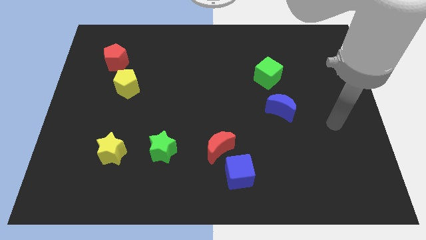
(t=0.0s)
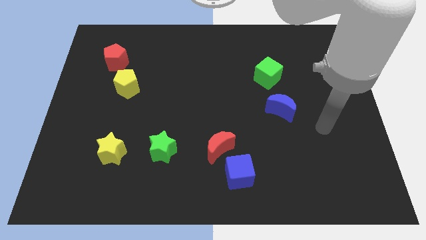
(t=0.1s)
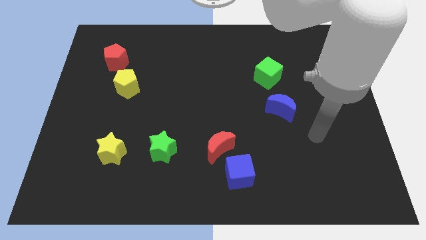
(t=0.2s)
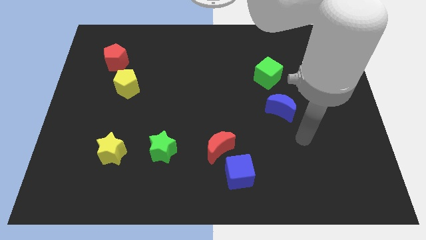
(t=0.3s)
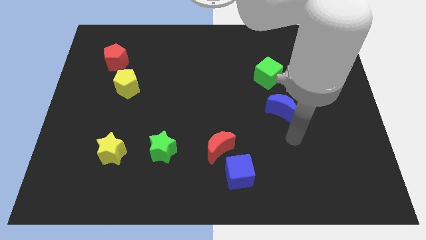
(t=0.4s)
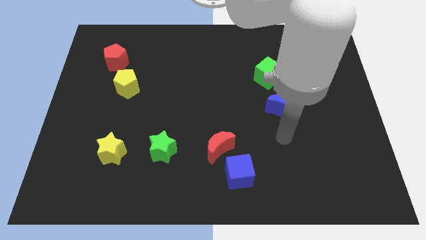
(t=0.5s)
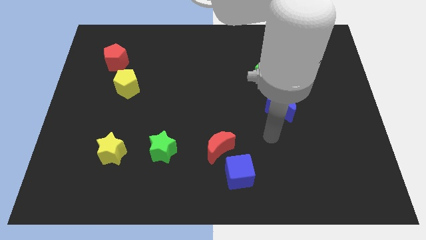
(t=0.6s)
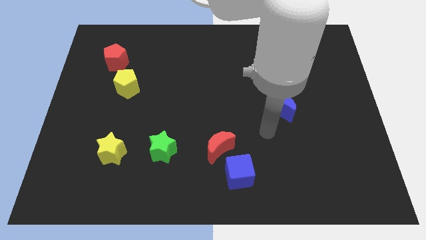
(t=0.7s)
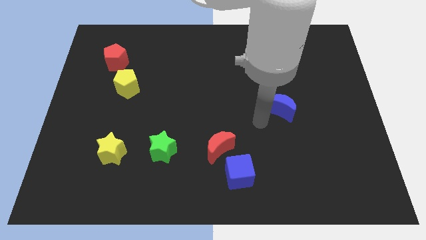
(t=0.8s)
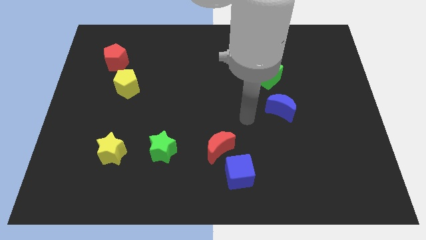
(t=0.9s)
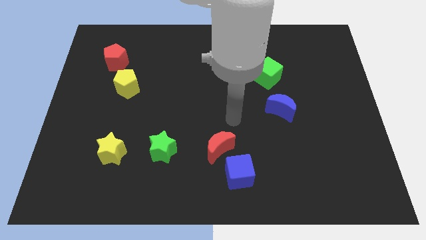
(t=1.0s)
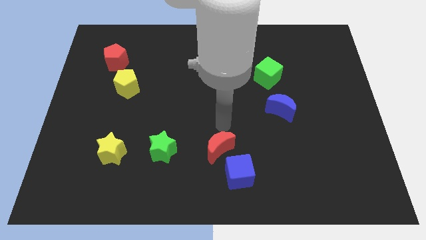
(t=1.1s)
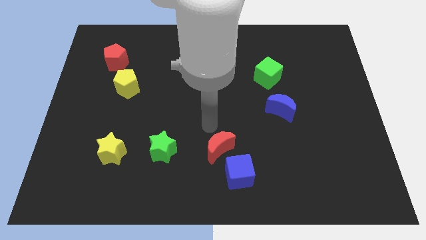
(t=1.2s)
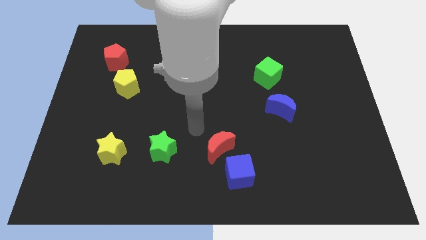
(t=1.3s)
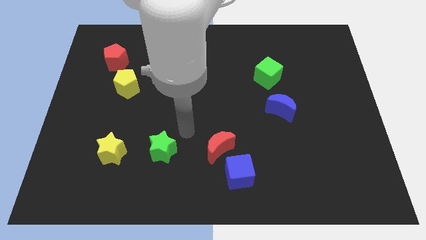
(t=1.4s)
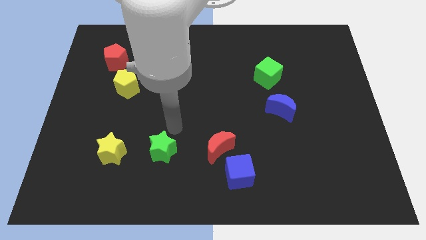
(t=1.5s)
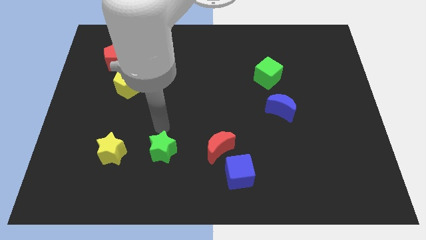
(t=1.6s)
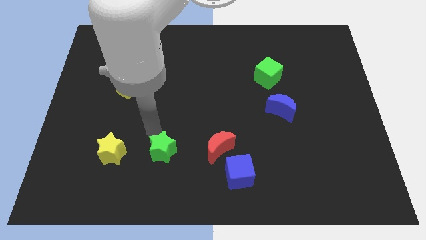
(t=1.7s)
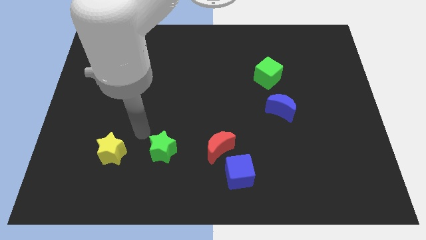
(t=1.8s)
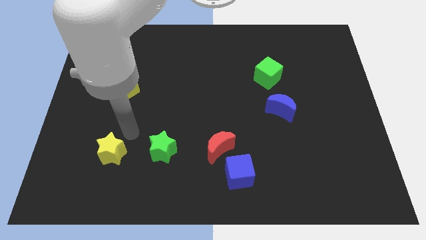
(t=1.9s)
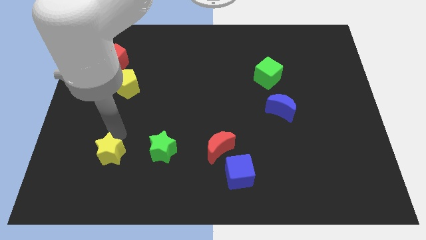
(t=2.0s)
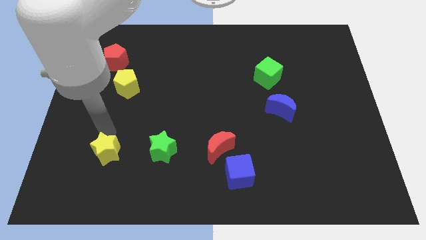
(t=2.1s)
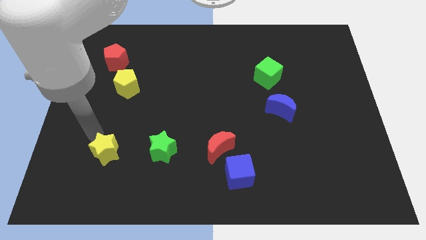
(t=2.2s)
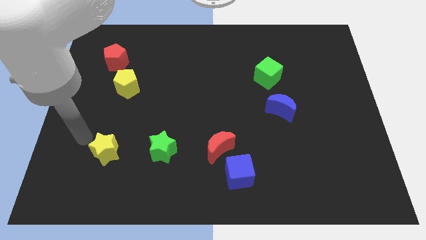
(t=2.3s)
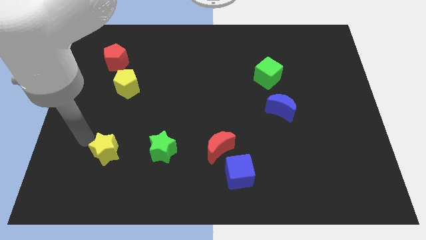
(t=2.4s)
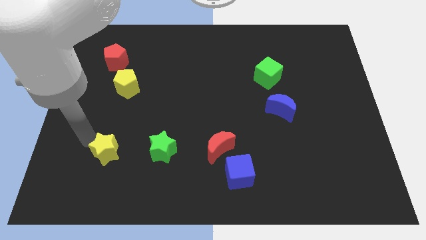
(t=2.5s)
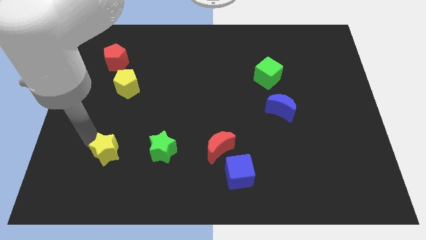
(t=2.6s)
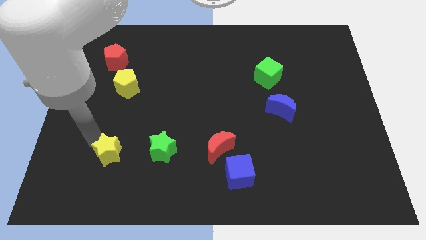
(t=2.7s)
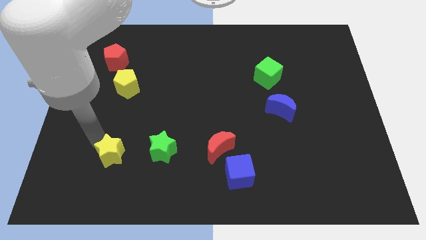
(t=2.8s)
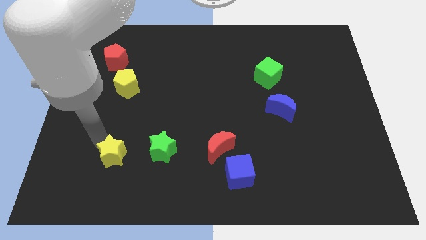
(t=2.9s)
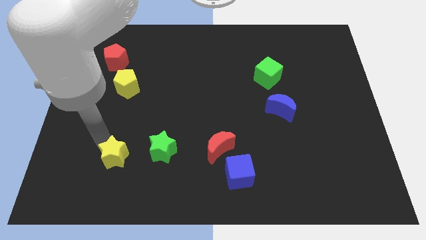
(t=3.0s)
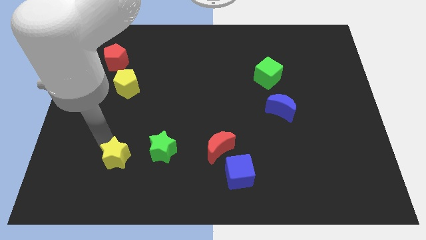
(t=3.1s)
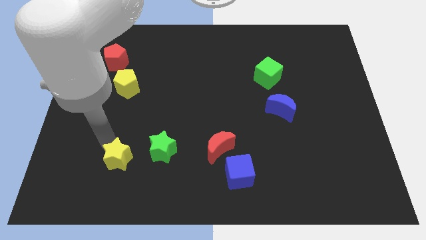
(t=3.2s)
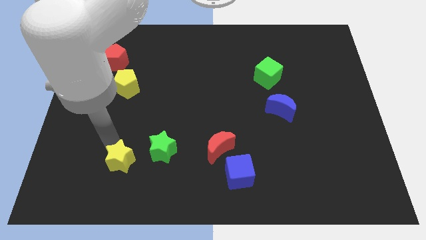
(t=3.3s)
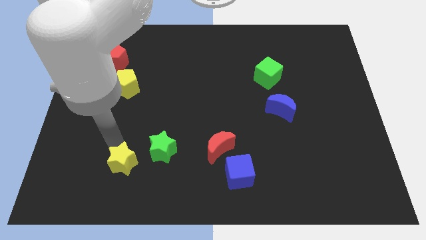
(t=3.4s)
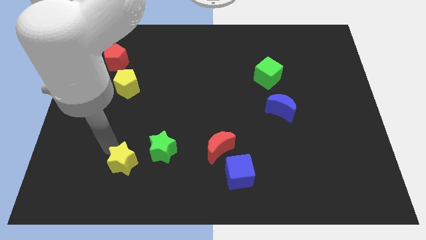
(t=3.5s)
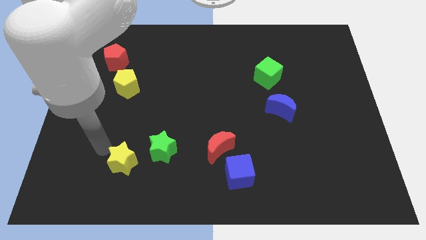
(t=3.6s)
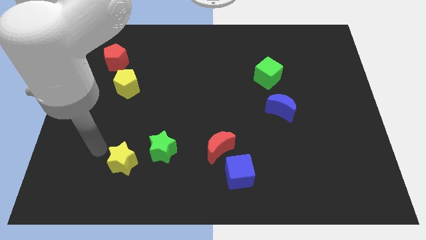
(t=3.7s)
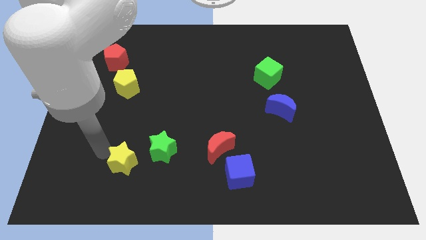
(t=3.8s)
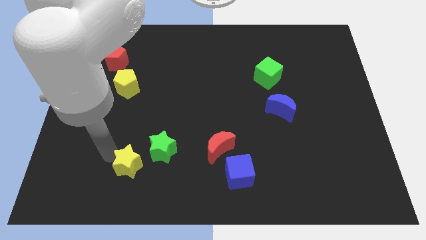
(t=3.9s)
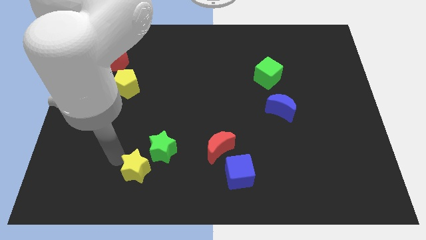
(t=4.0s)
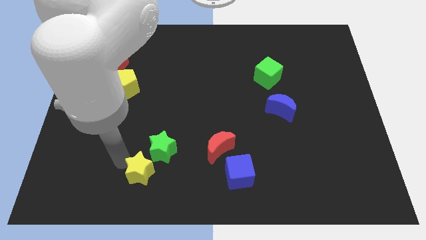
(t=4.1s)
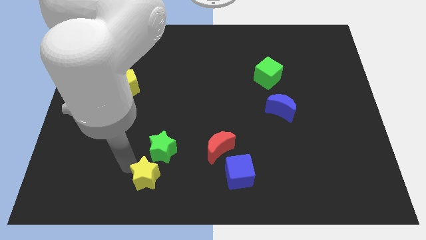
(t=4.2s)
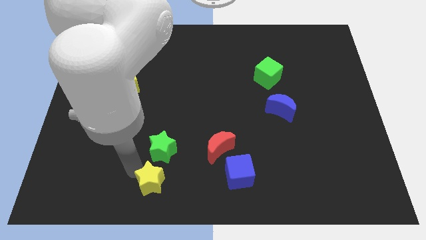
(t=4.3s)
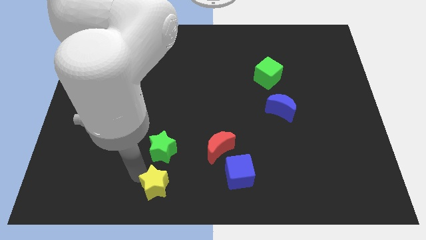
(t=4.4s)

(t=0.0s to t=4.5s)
move the yellow star to the bottom side

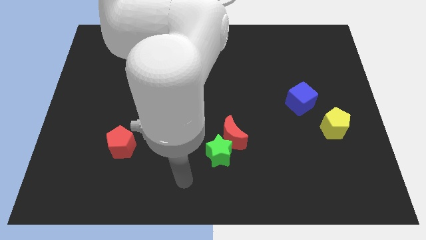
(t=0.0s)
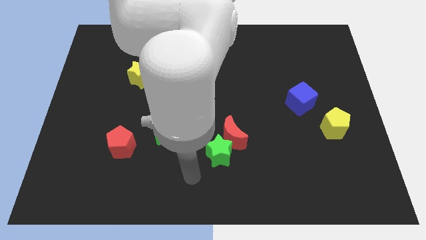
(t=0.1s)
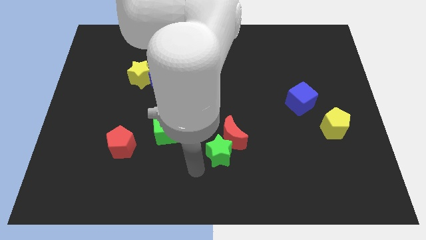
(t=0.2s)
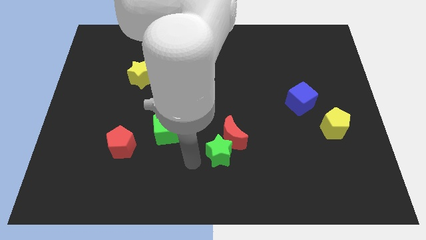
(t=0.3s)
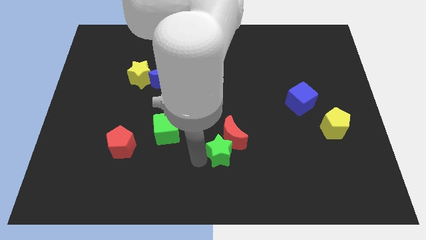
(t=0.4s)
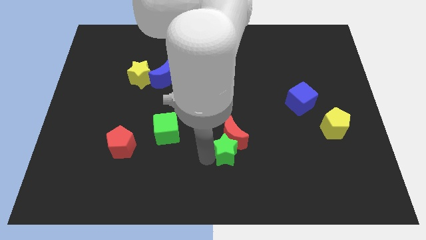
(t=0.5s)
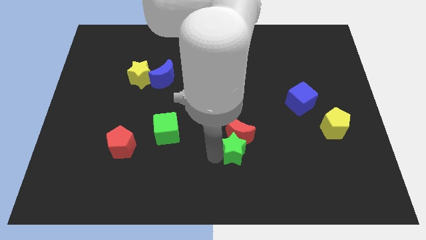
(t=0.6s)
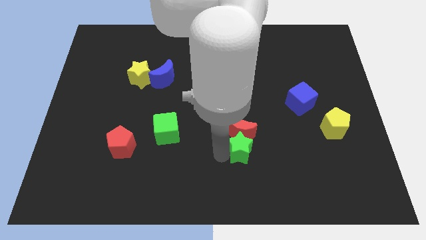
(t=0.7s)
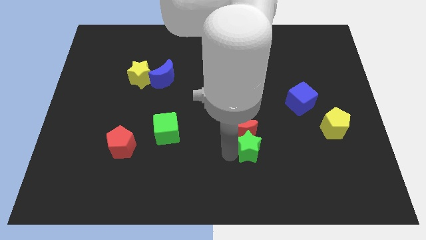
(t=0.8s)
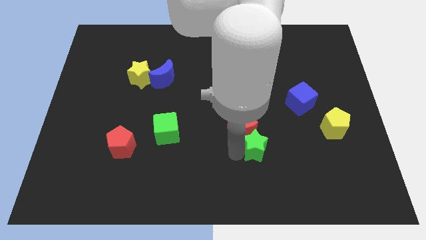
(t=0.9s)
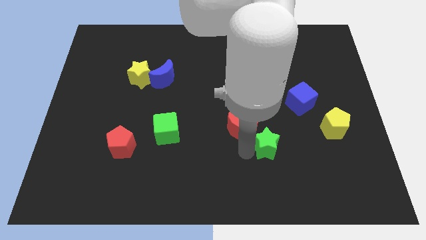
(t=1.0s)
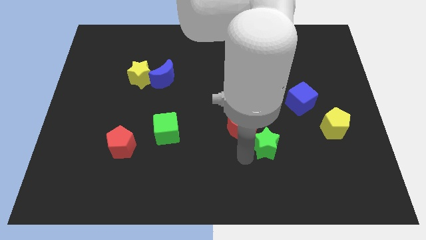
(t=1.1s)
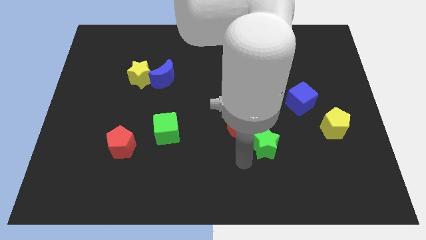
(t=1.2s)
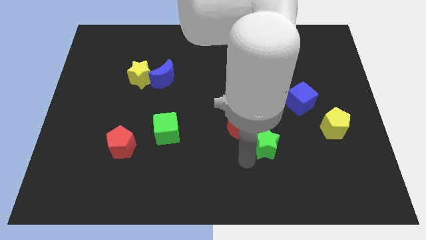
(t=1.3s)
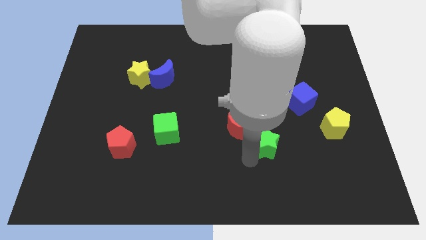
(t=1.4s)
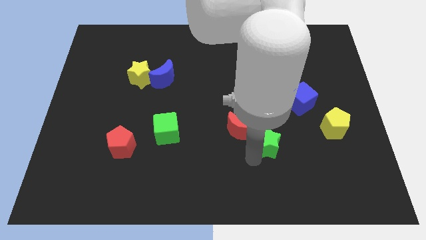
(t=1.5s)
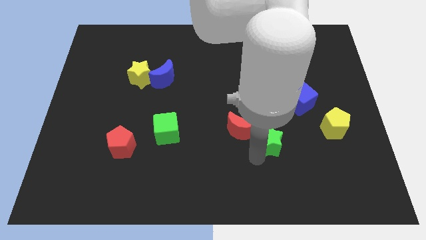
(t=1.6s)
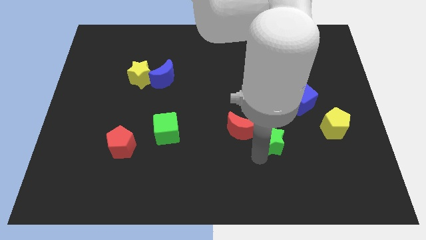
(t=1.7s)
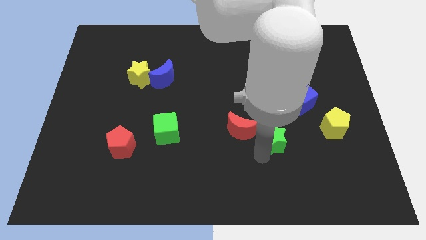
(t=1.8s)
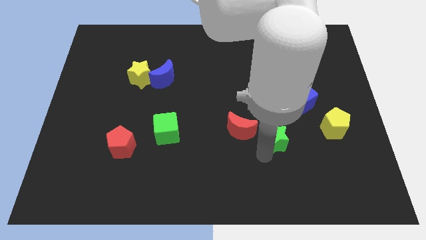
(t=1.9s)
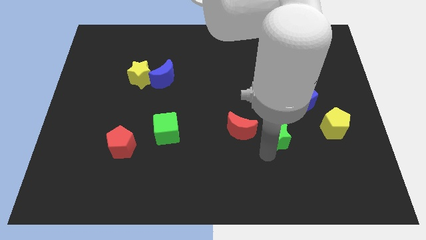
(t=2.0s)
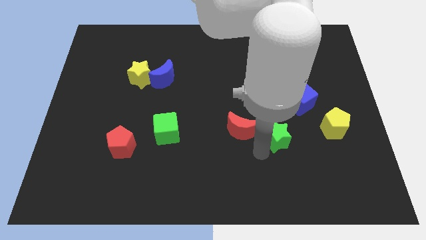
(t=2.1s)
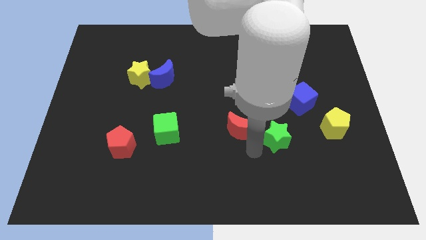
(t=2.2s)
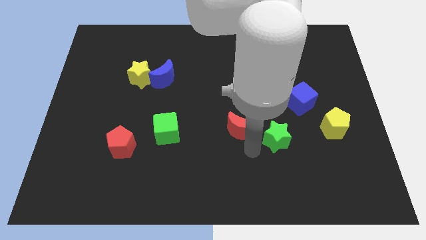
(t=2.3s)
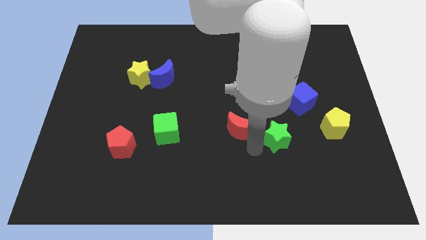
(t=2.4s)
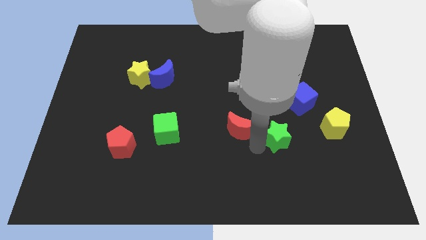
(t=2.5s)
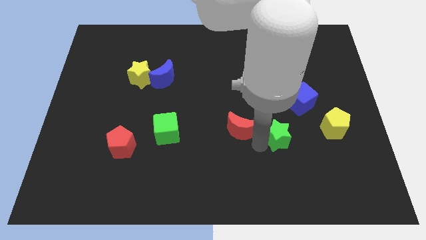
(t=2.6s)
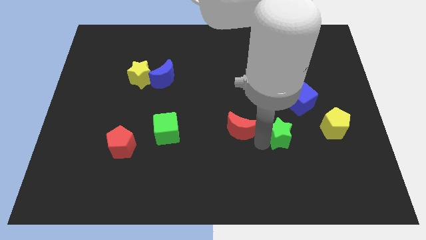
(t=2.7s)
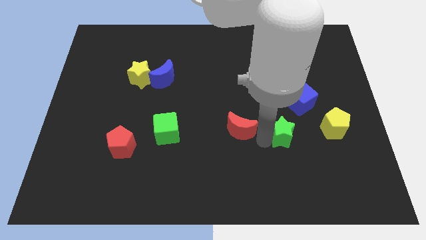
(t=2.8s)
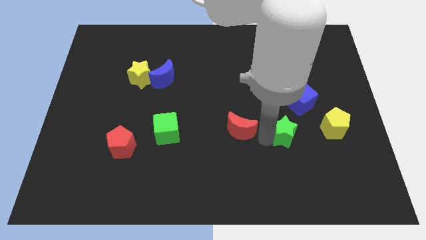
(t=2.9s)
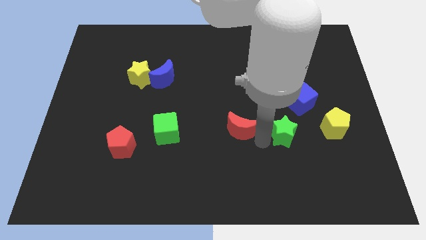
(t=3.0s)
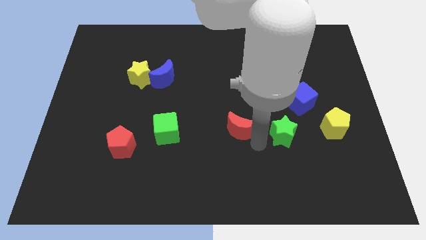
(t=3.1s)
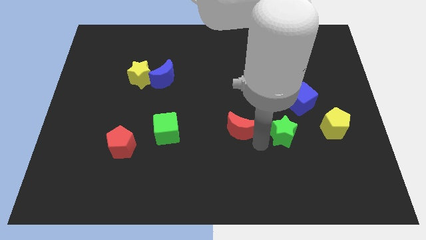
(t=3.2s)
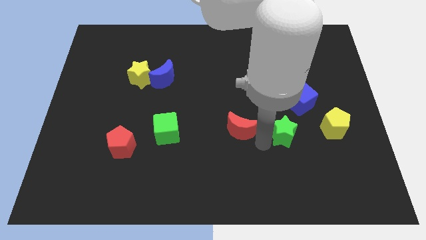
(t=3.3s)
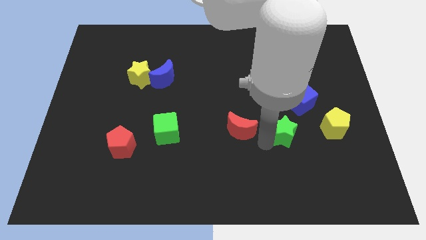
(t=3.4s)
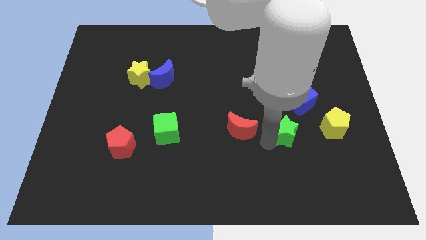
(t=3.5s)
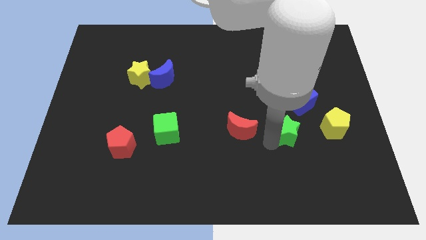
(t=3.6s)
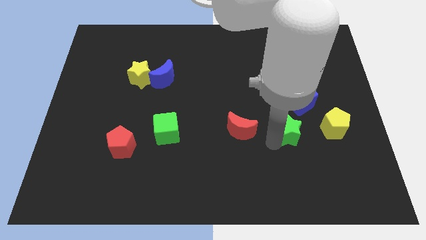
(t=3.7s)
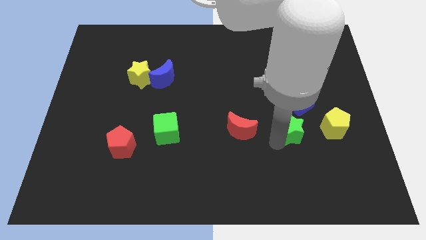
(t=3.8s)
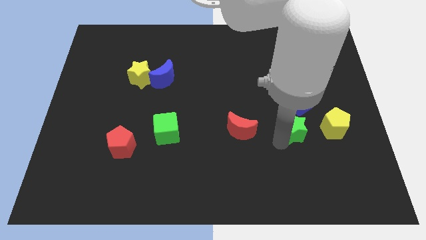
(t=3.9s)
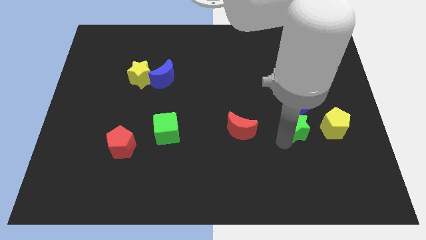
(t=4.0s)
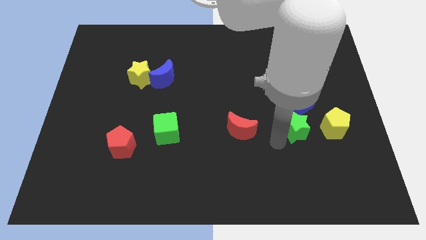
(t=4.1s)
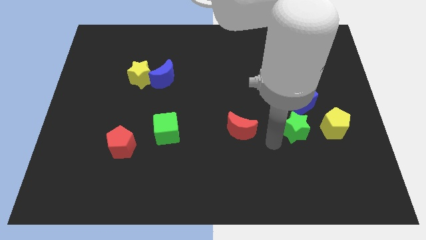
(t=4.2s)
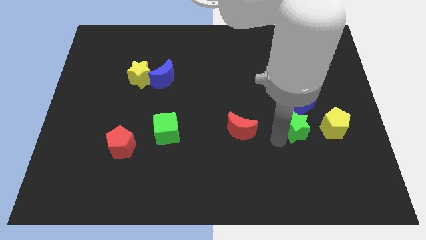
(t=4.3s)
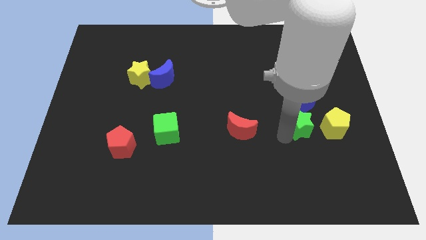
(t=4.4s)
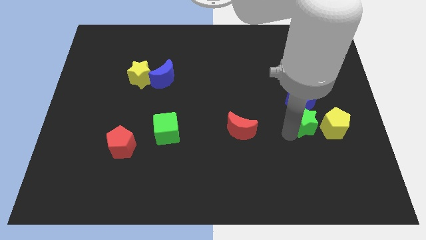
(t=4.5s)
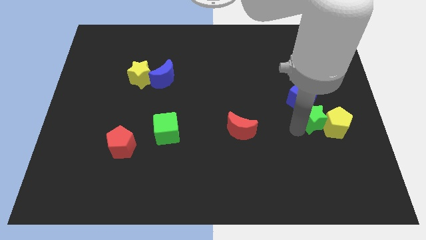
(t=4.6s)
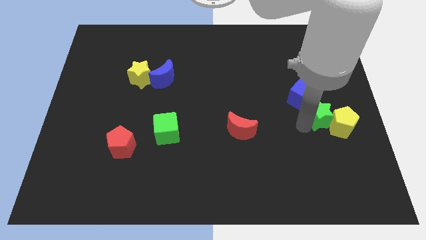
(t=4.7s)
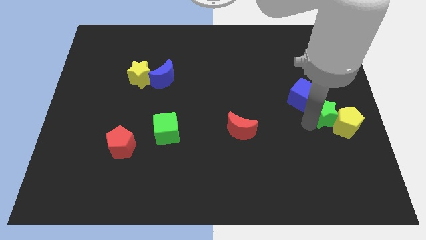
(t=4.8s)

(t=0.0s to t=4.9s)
push the green star to the right side of the board
